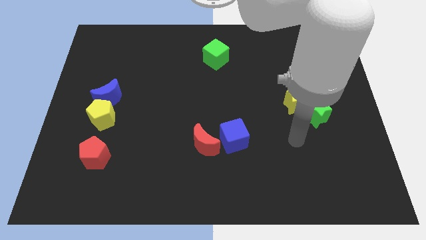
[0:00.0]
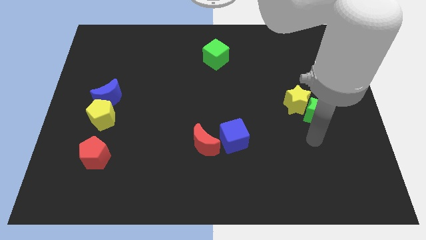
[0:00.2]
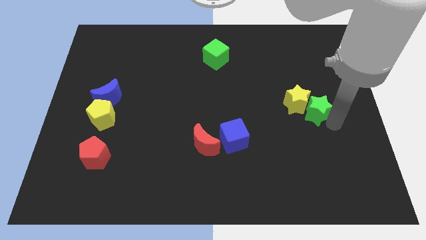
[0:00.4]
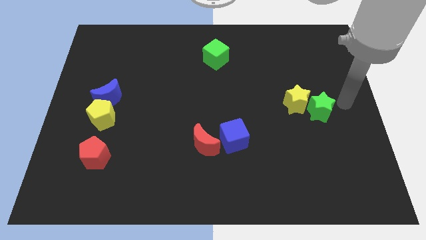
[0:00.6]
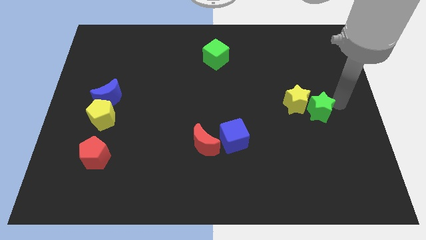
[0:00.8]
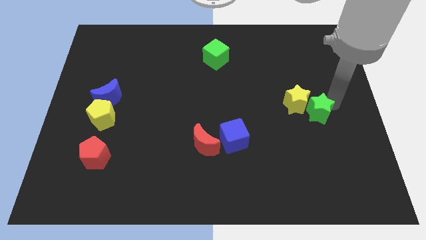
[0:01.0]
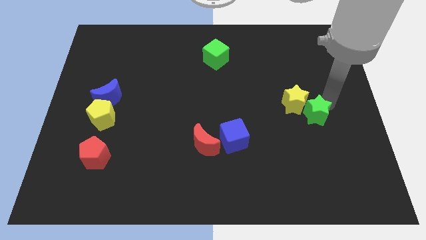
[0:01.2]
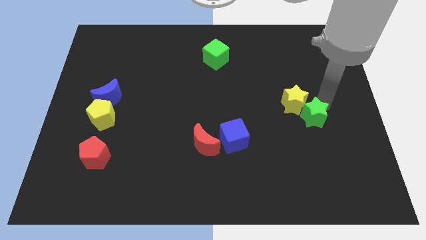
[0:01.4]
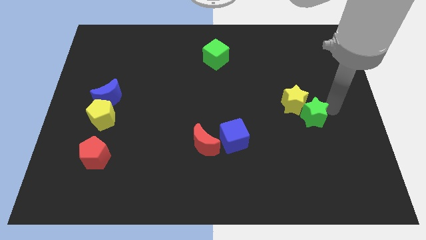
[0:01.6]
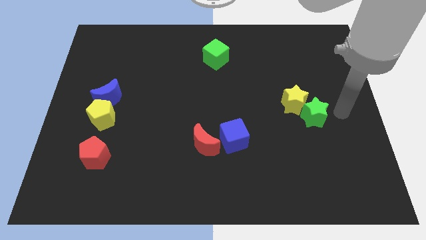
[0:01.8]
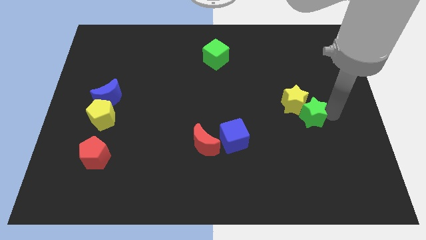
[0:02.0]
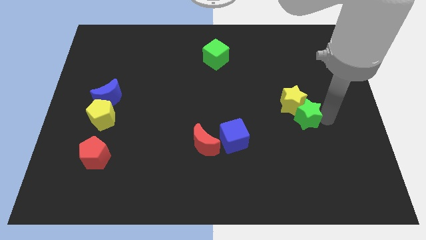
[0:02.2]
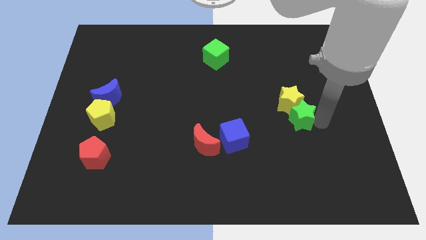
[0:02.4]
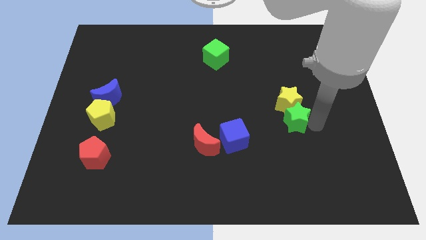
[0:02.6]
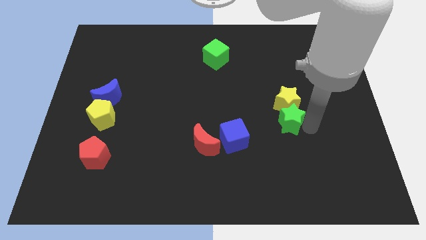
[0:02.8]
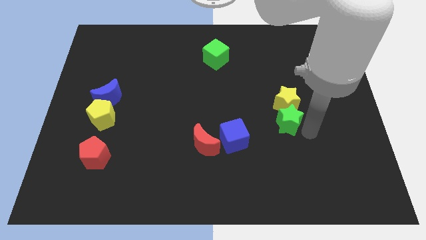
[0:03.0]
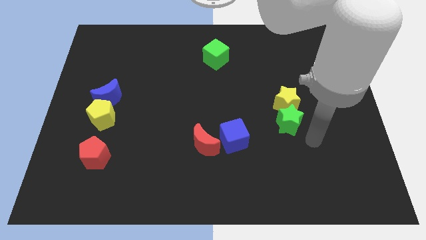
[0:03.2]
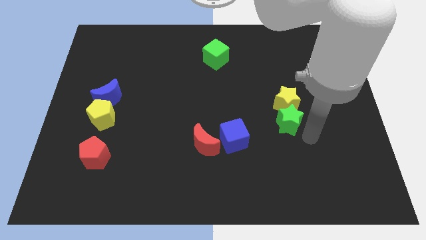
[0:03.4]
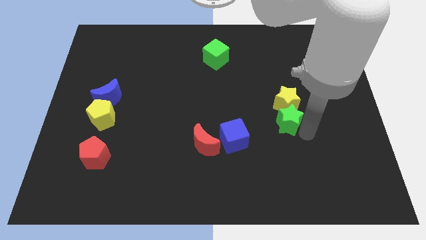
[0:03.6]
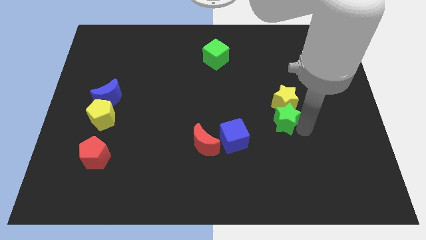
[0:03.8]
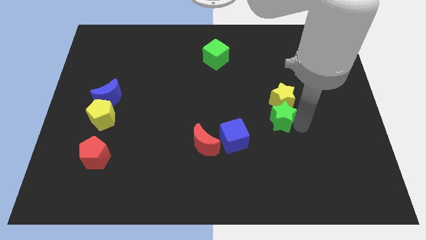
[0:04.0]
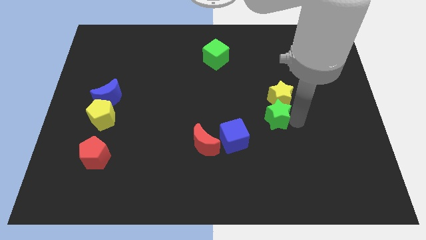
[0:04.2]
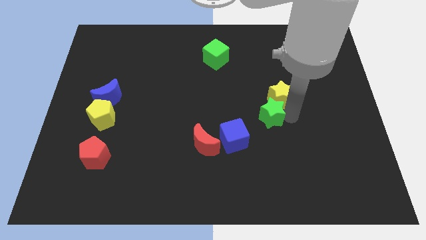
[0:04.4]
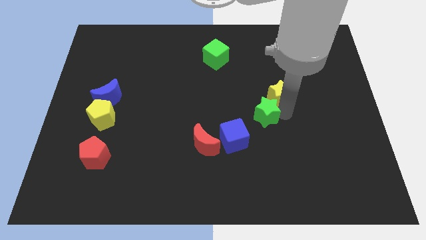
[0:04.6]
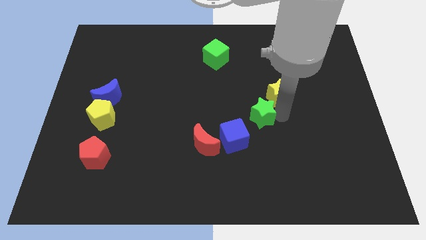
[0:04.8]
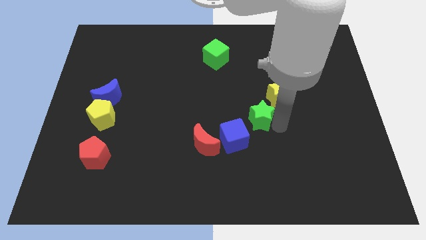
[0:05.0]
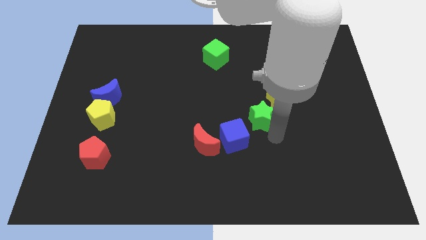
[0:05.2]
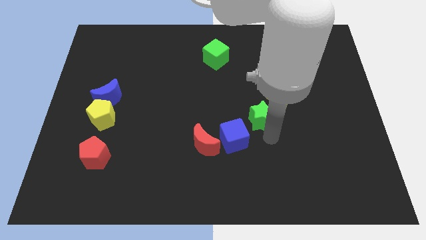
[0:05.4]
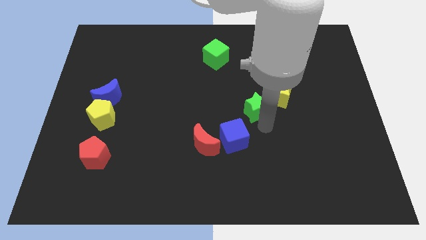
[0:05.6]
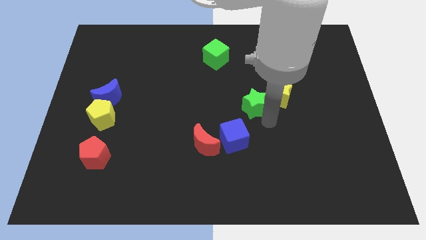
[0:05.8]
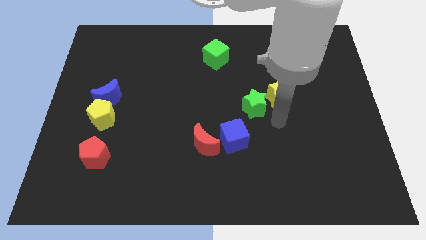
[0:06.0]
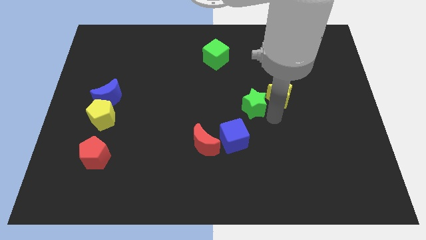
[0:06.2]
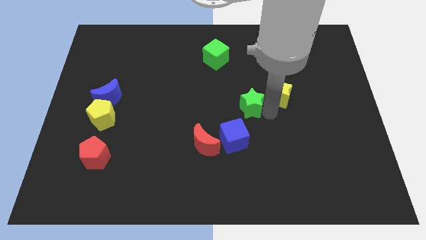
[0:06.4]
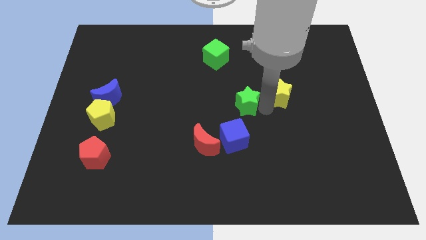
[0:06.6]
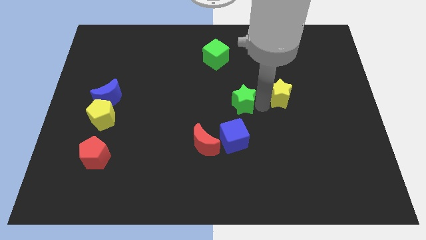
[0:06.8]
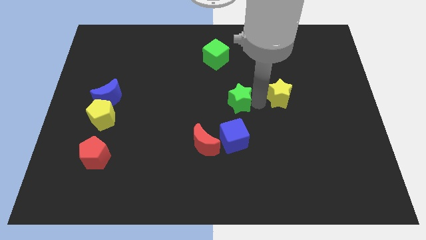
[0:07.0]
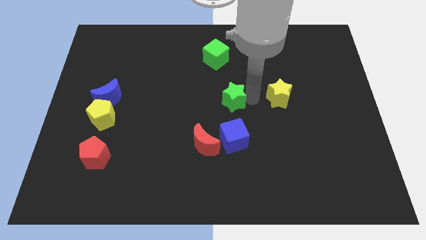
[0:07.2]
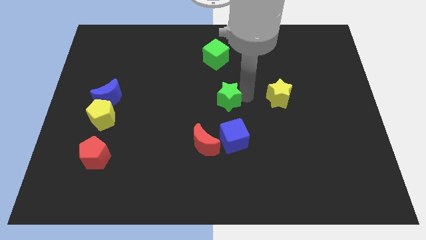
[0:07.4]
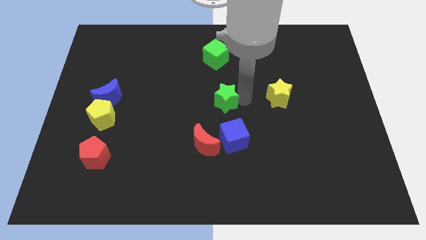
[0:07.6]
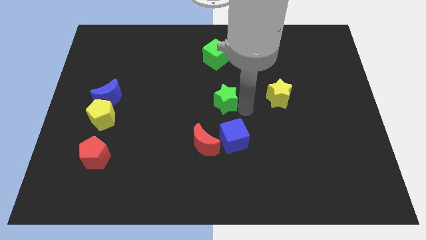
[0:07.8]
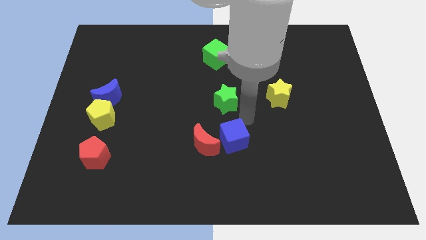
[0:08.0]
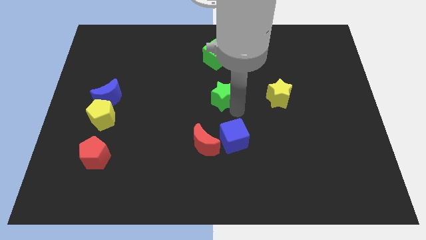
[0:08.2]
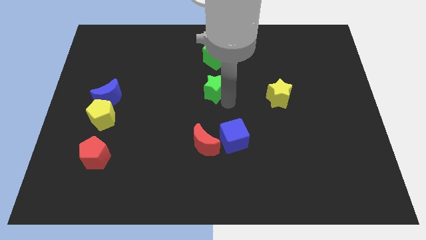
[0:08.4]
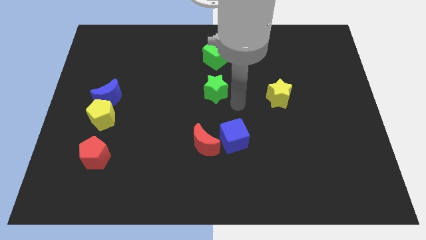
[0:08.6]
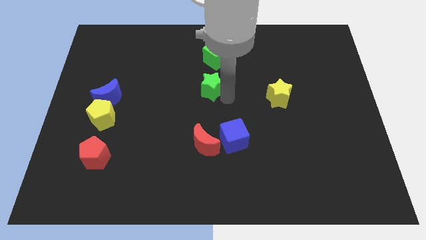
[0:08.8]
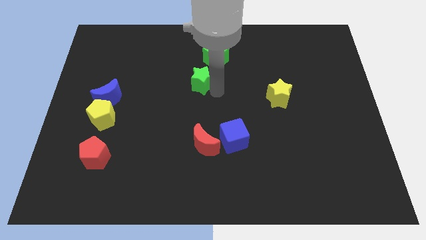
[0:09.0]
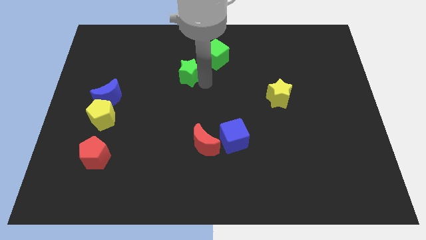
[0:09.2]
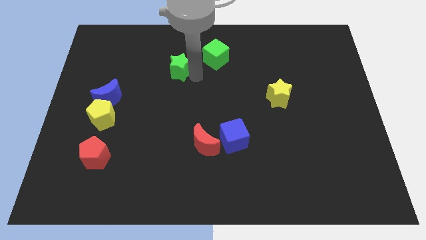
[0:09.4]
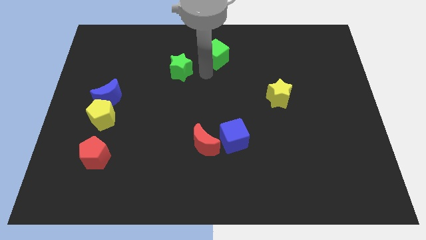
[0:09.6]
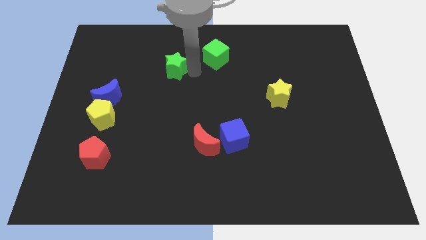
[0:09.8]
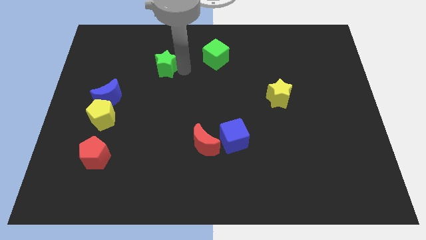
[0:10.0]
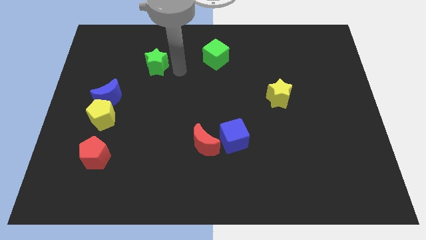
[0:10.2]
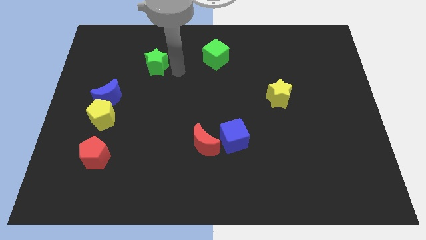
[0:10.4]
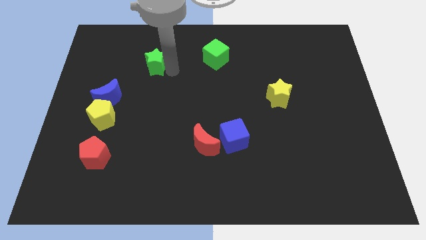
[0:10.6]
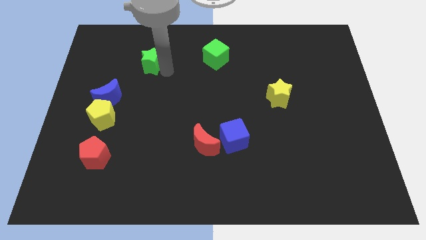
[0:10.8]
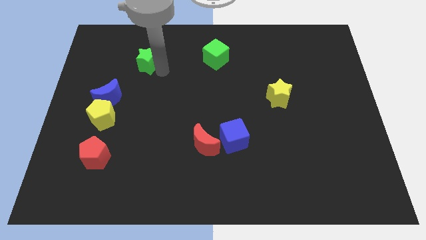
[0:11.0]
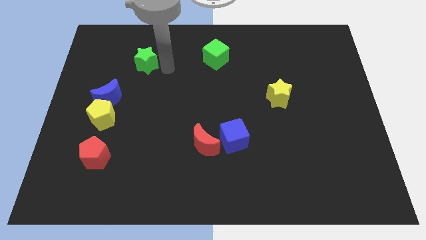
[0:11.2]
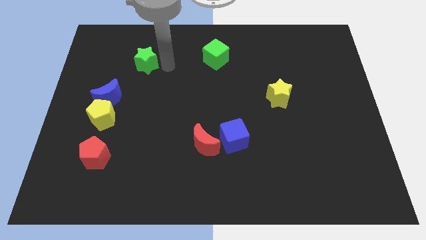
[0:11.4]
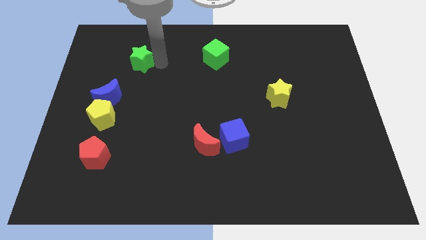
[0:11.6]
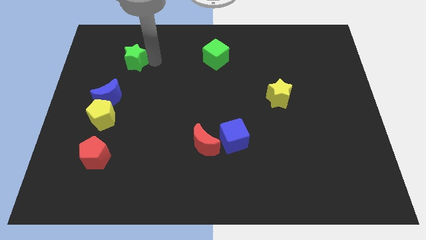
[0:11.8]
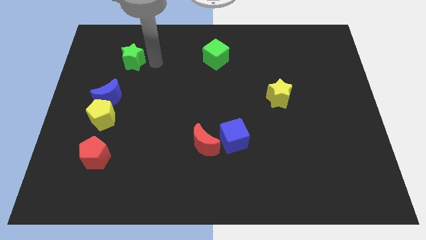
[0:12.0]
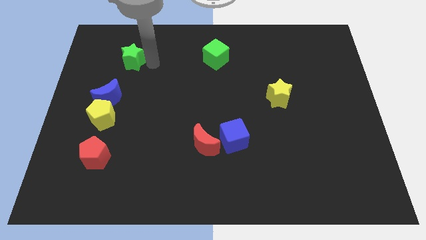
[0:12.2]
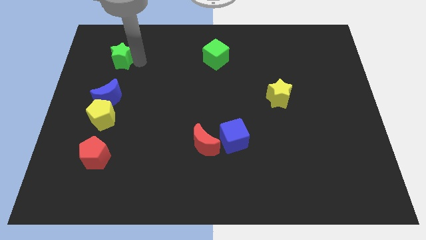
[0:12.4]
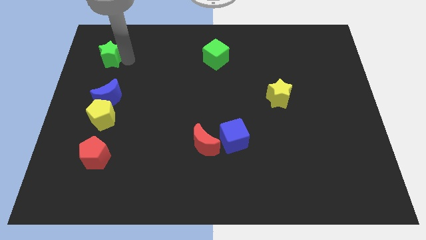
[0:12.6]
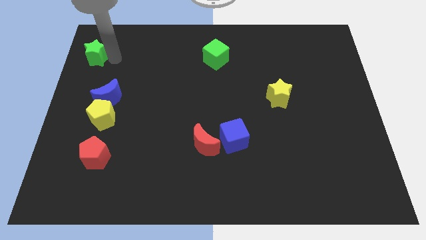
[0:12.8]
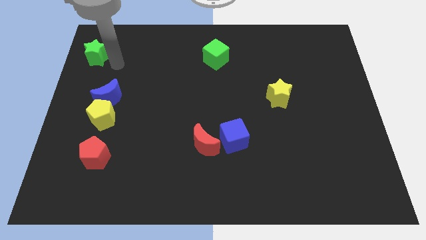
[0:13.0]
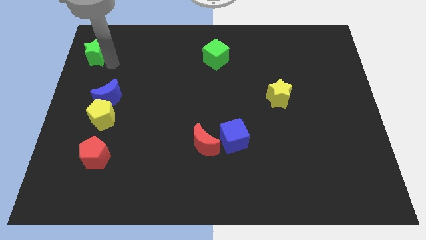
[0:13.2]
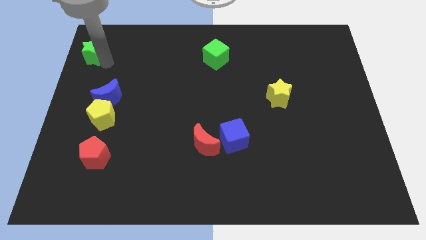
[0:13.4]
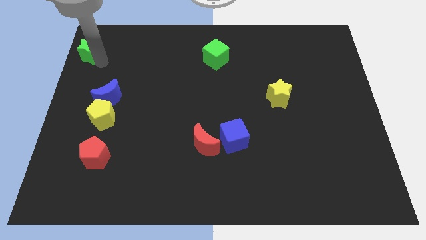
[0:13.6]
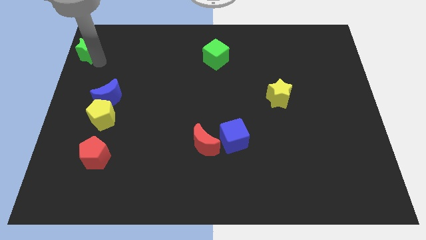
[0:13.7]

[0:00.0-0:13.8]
push the green star to the top left
